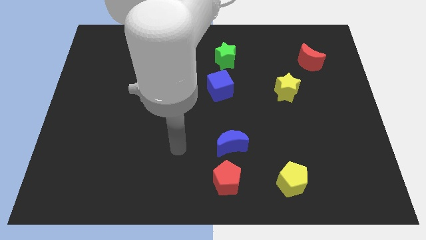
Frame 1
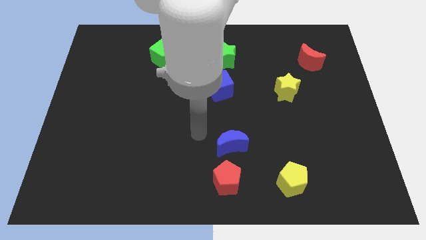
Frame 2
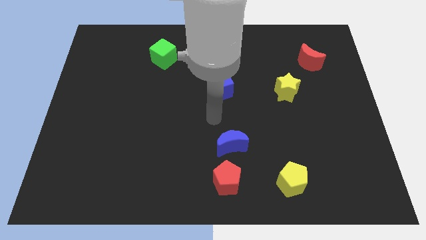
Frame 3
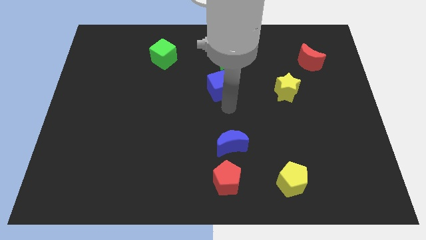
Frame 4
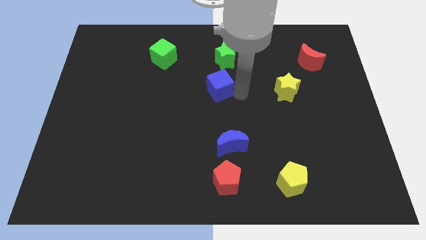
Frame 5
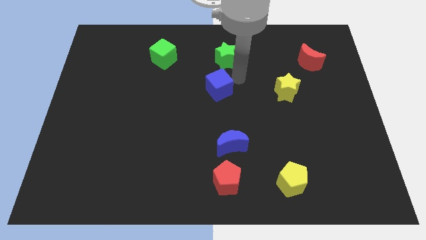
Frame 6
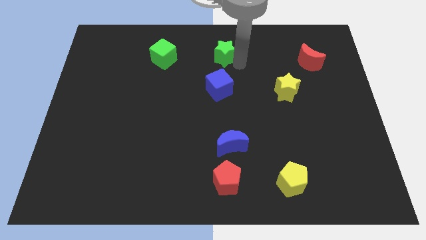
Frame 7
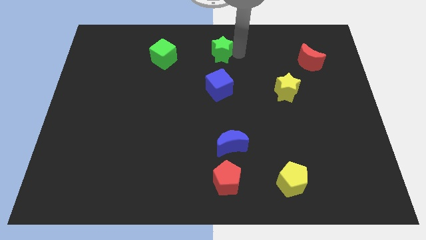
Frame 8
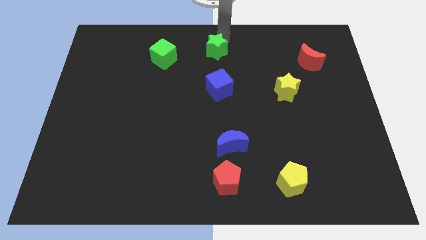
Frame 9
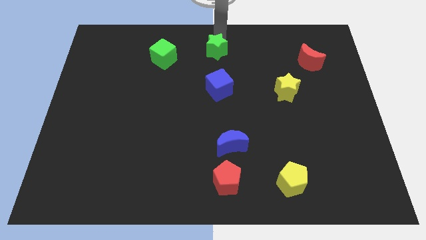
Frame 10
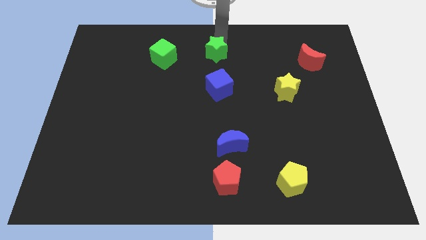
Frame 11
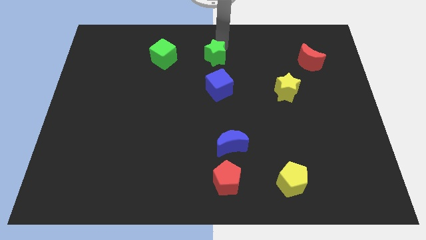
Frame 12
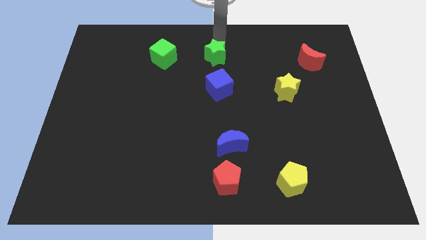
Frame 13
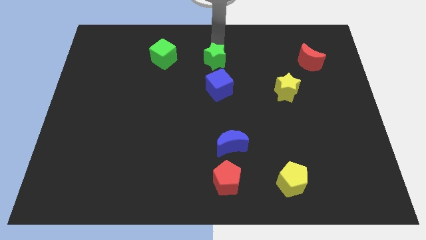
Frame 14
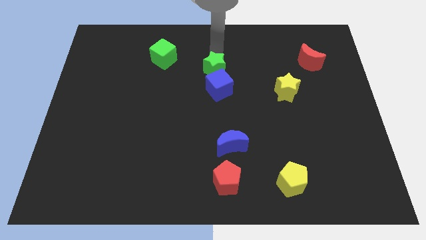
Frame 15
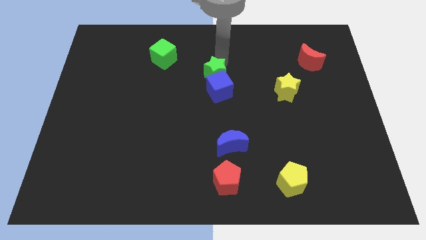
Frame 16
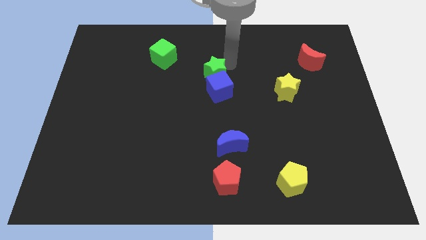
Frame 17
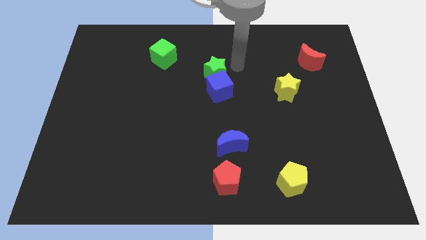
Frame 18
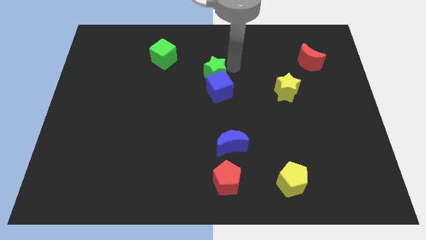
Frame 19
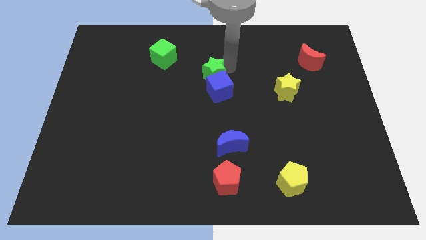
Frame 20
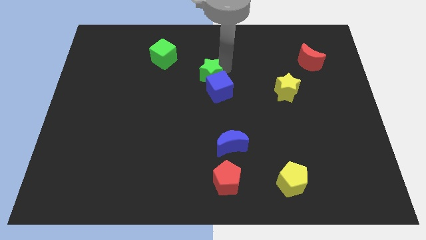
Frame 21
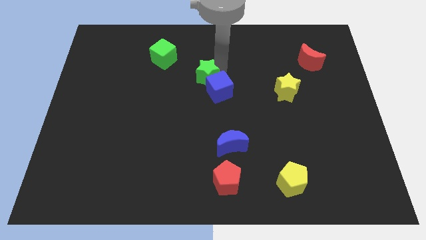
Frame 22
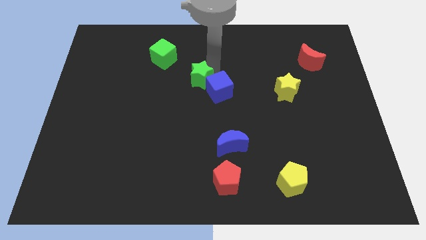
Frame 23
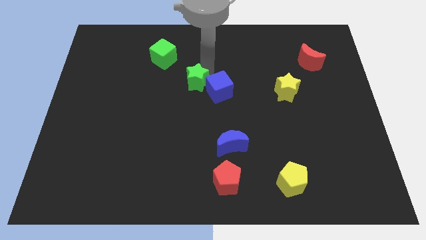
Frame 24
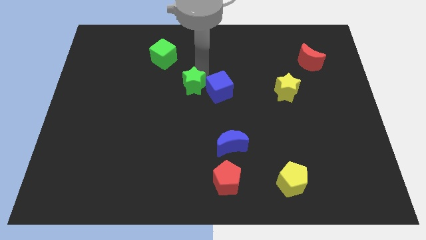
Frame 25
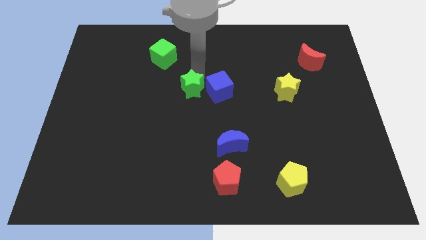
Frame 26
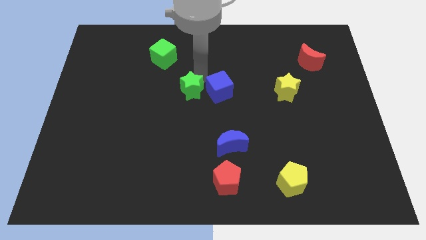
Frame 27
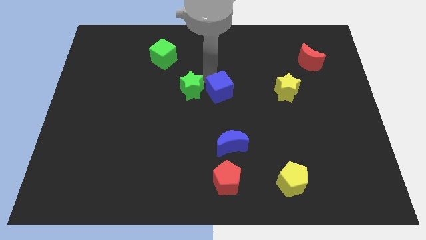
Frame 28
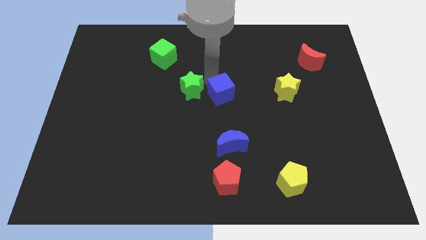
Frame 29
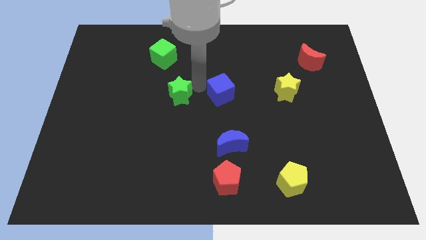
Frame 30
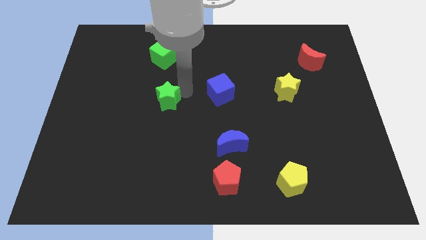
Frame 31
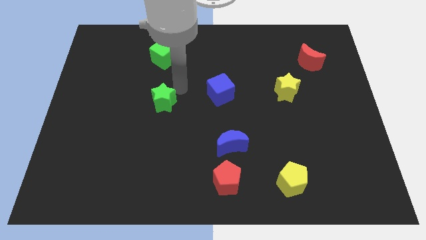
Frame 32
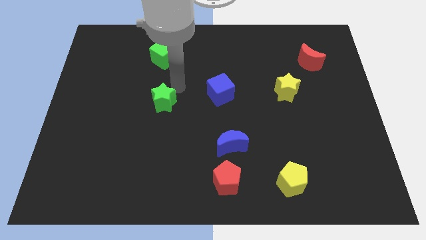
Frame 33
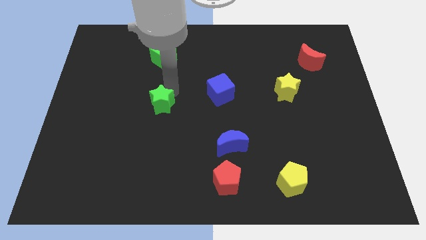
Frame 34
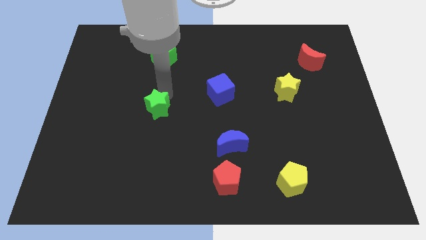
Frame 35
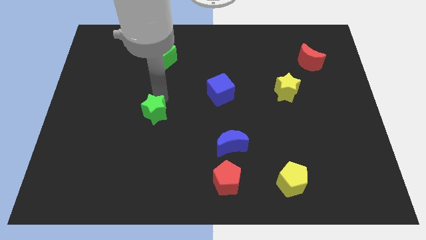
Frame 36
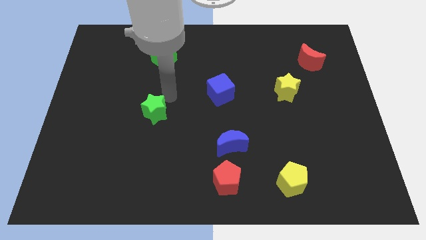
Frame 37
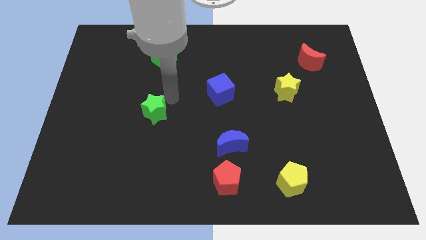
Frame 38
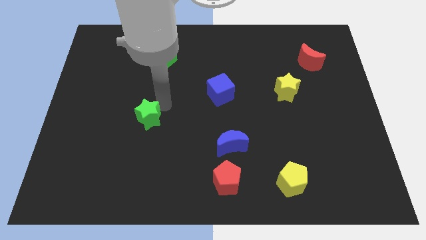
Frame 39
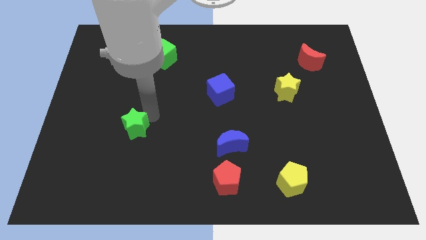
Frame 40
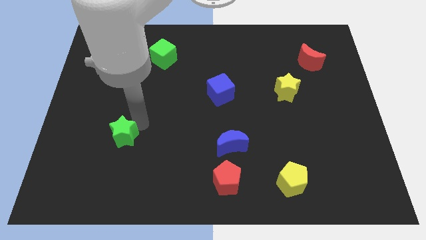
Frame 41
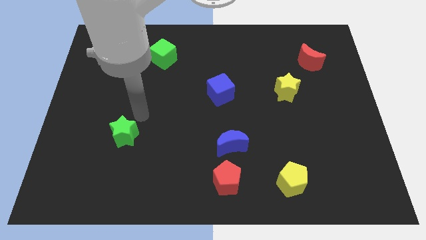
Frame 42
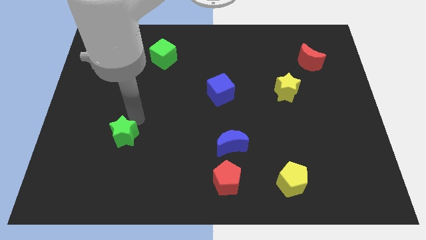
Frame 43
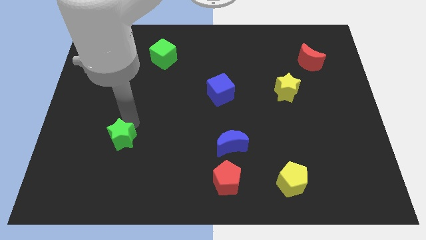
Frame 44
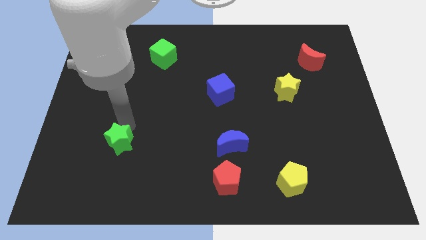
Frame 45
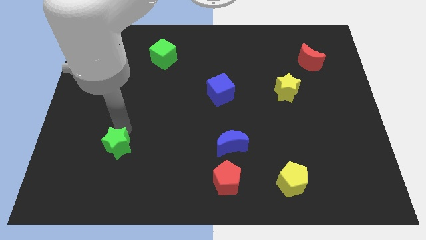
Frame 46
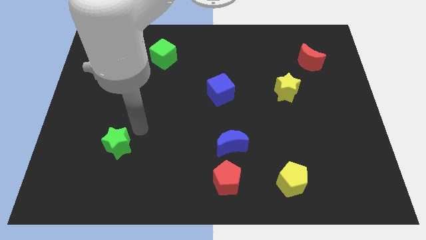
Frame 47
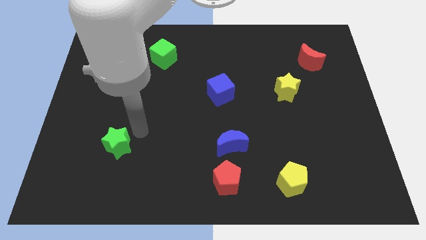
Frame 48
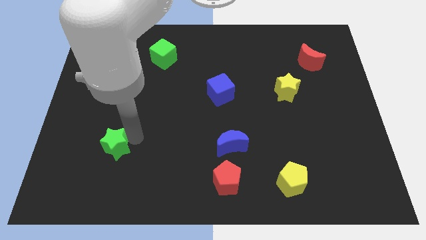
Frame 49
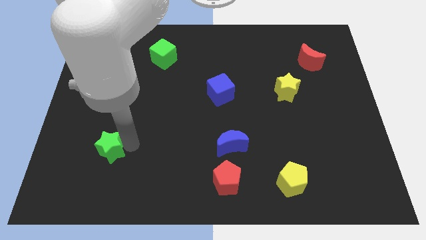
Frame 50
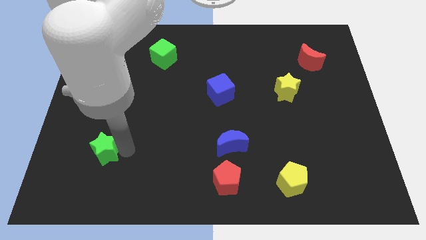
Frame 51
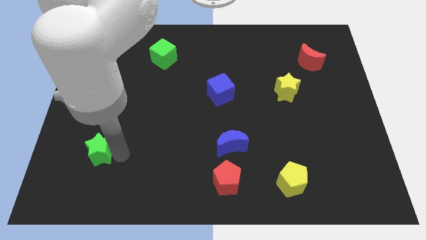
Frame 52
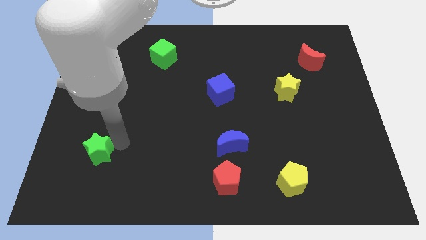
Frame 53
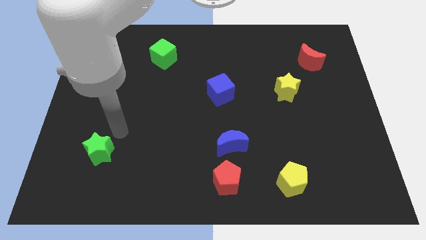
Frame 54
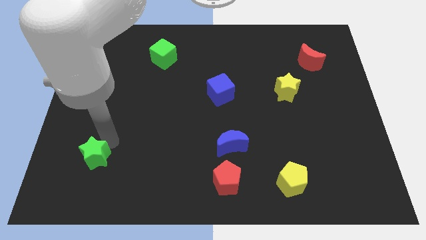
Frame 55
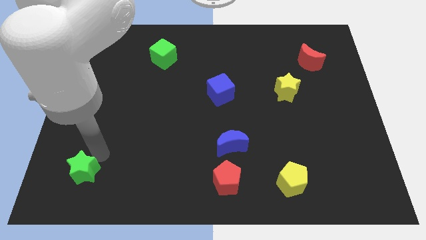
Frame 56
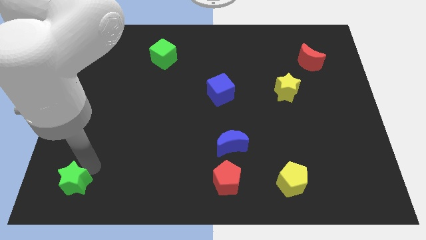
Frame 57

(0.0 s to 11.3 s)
push the green star to the bottom left

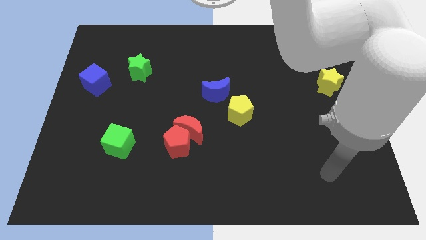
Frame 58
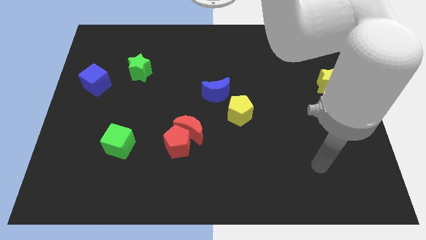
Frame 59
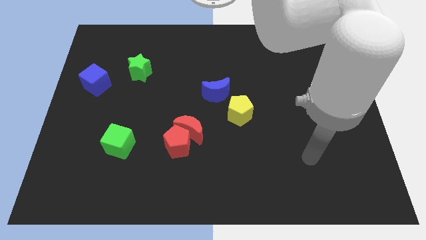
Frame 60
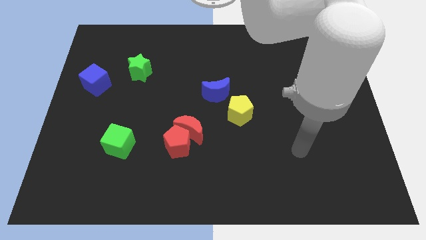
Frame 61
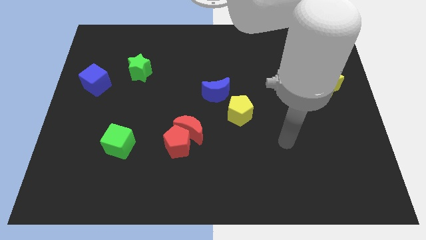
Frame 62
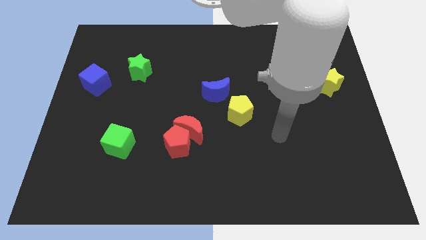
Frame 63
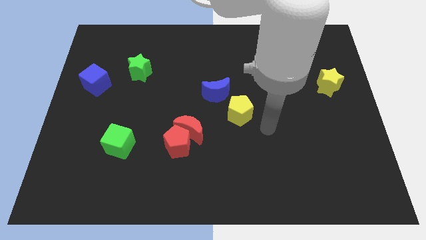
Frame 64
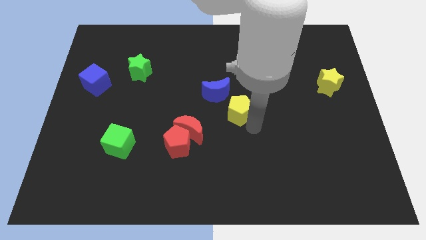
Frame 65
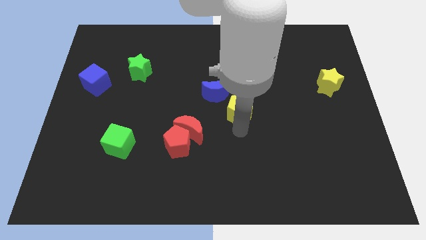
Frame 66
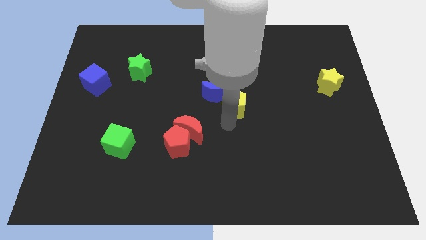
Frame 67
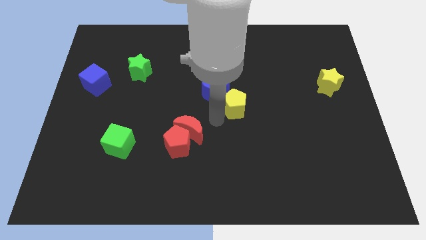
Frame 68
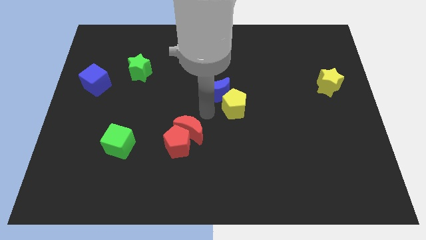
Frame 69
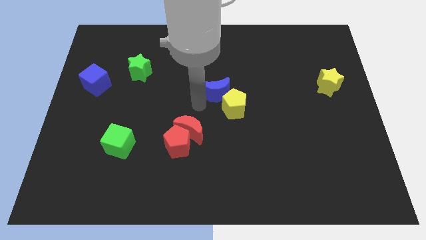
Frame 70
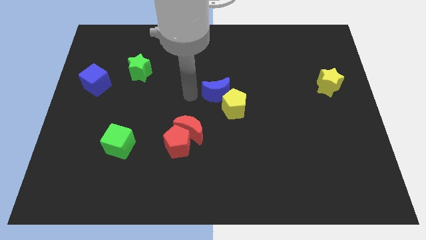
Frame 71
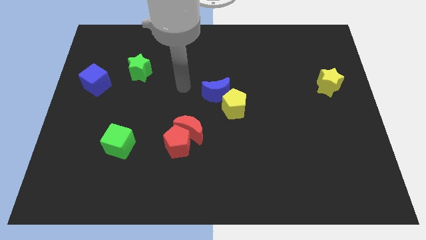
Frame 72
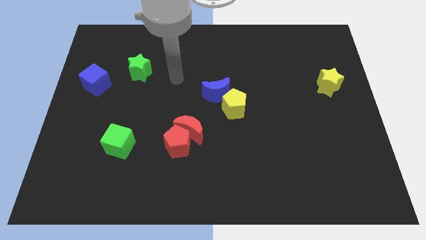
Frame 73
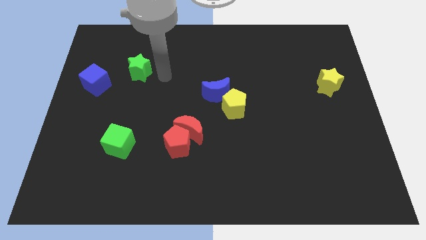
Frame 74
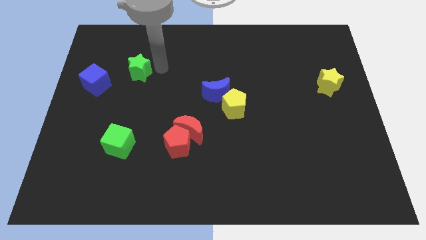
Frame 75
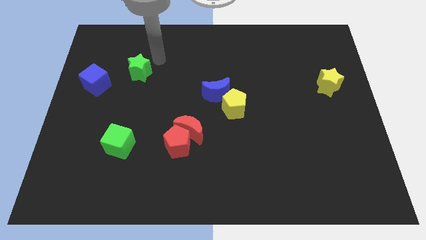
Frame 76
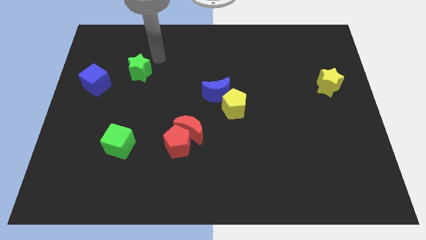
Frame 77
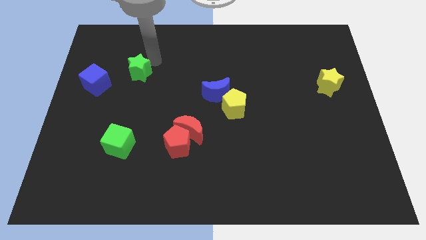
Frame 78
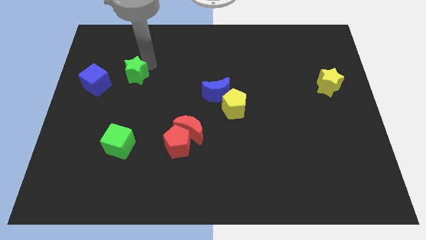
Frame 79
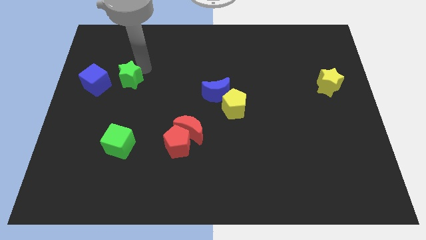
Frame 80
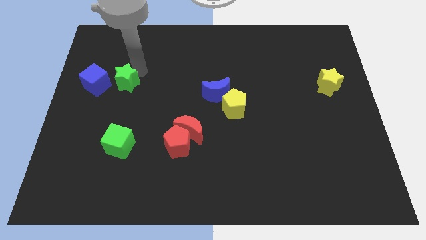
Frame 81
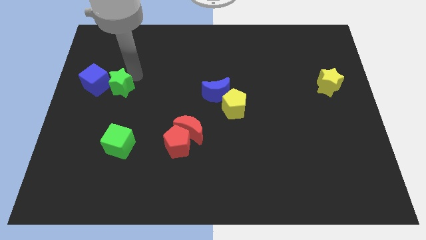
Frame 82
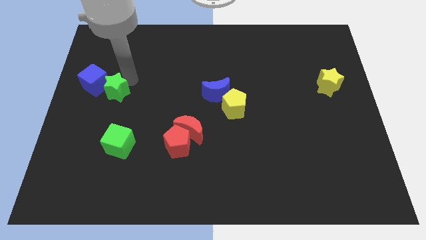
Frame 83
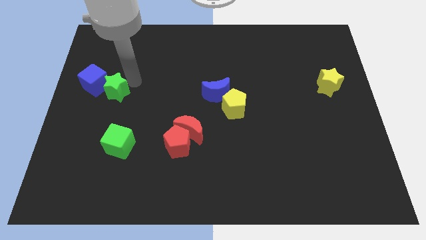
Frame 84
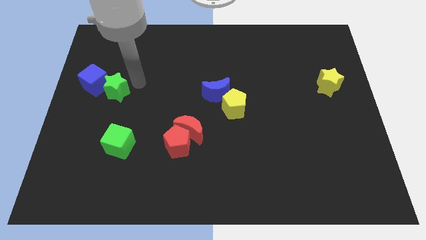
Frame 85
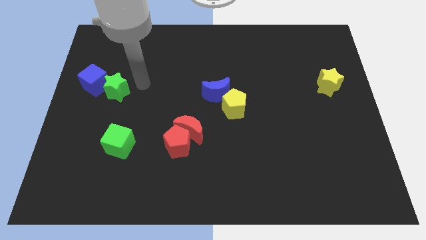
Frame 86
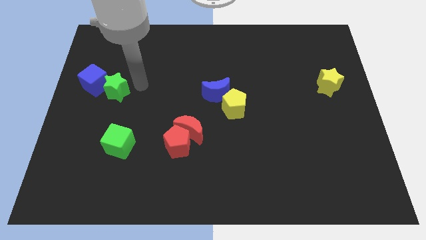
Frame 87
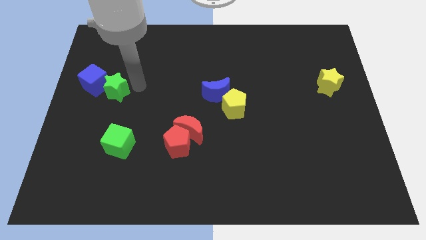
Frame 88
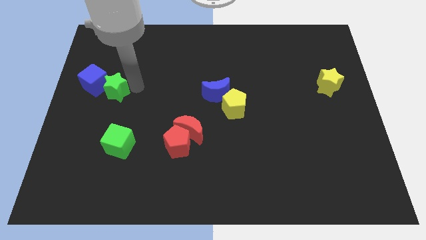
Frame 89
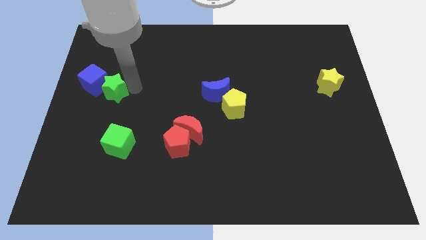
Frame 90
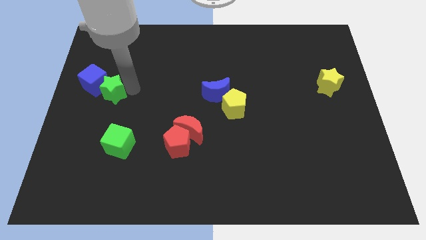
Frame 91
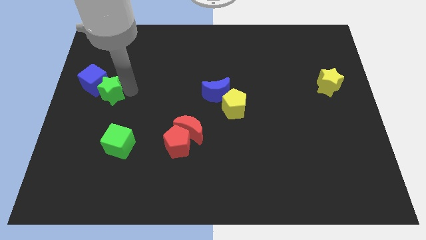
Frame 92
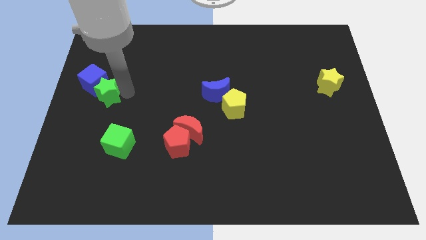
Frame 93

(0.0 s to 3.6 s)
push the green star to the left side
